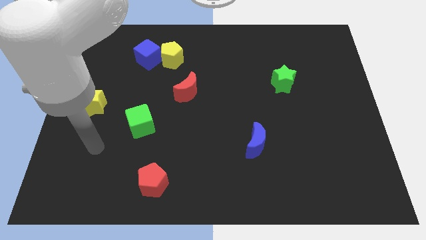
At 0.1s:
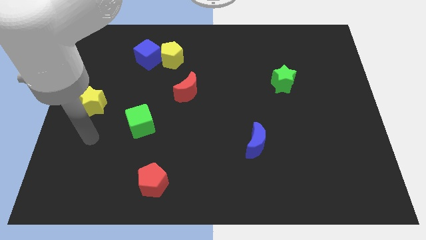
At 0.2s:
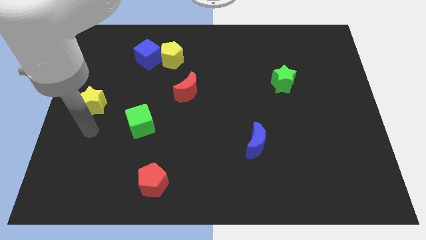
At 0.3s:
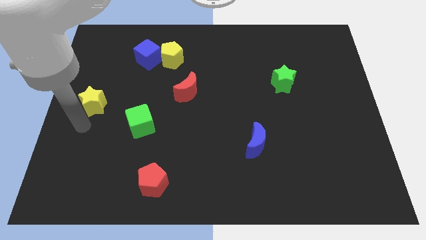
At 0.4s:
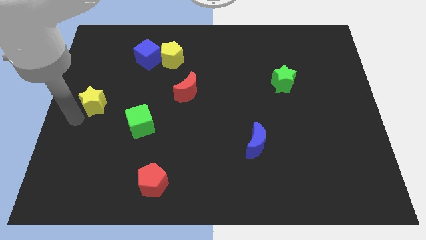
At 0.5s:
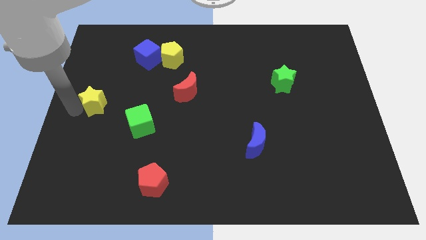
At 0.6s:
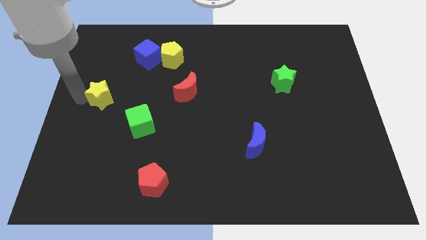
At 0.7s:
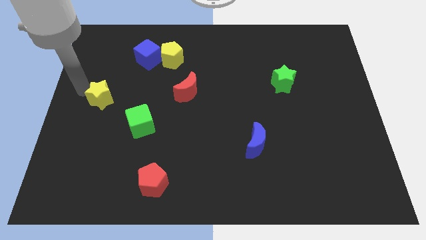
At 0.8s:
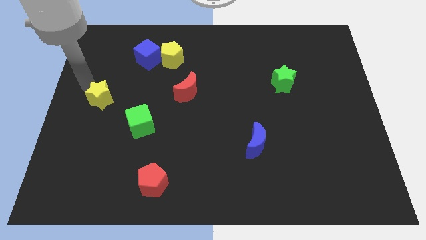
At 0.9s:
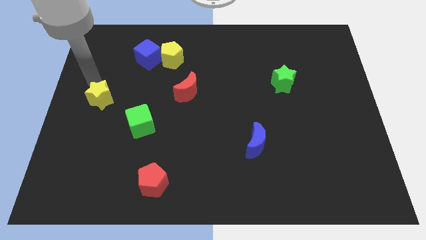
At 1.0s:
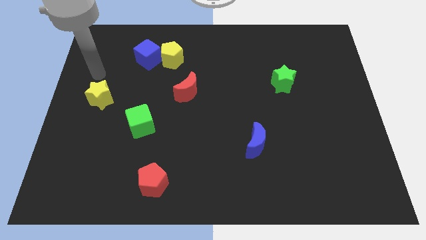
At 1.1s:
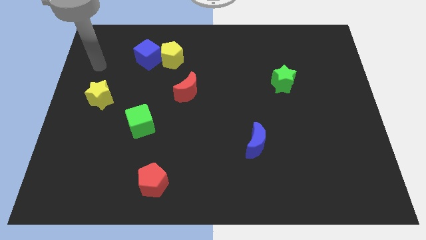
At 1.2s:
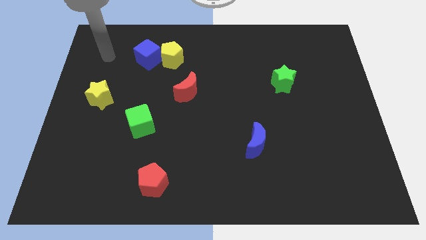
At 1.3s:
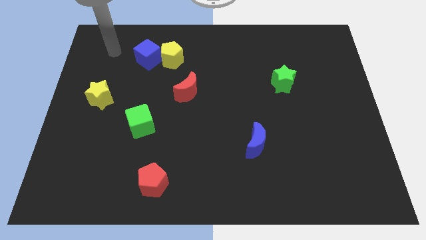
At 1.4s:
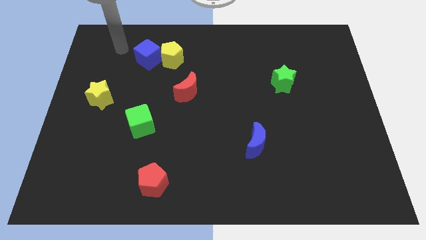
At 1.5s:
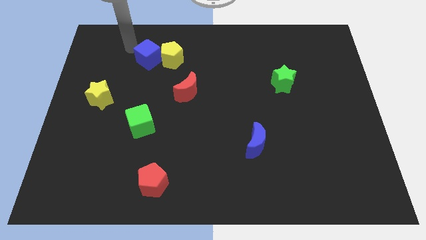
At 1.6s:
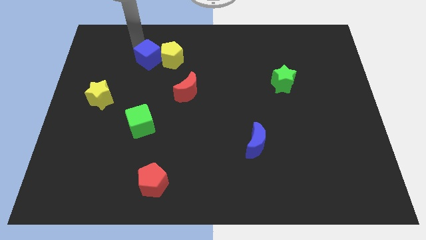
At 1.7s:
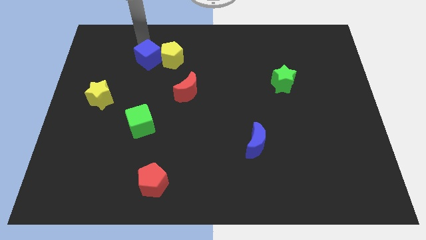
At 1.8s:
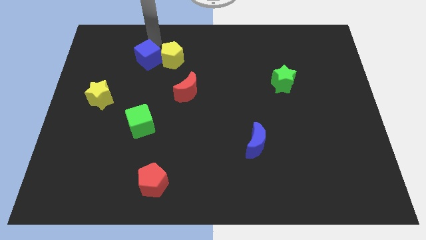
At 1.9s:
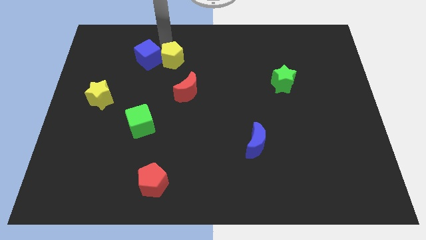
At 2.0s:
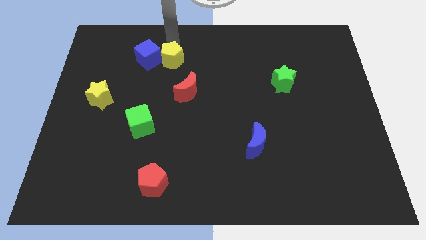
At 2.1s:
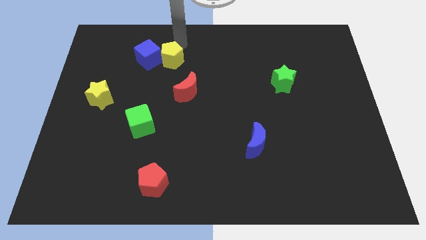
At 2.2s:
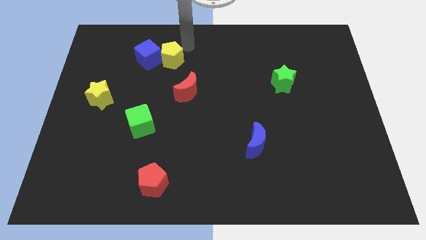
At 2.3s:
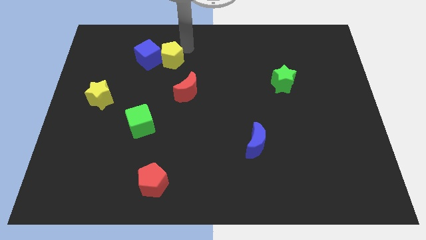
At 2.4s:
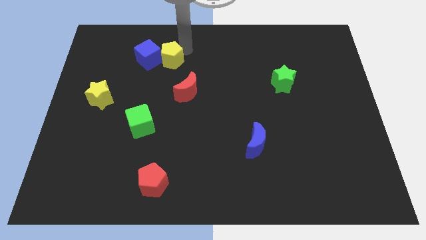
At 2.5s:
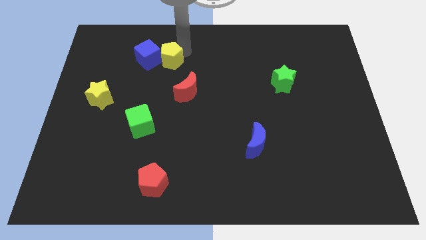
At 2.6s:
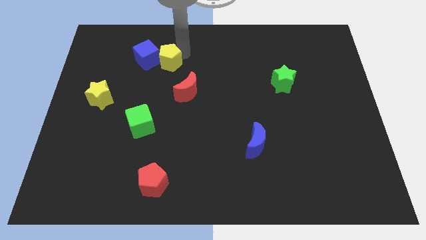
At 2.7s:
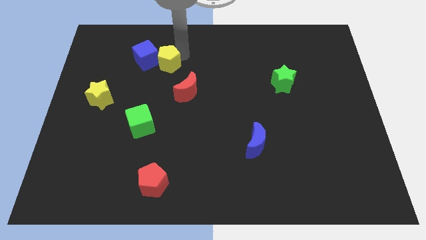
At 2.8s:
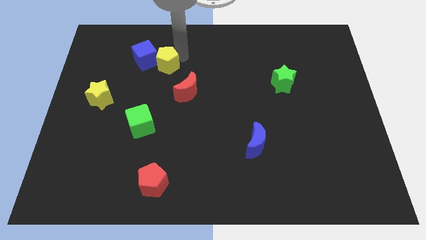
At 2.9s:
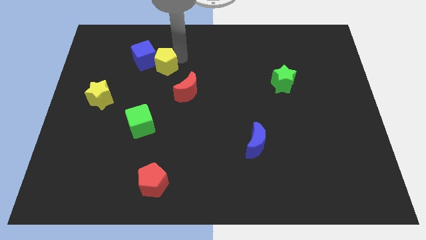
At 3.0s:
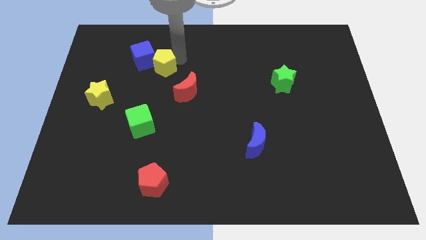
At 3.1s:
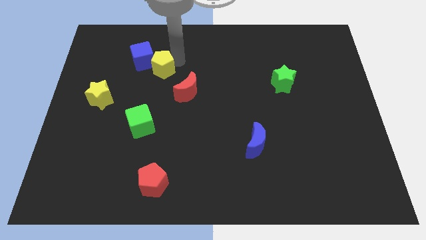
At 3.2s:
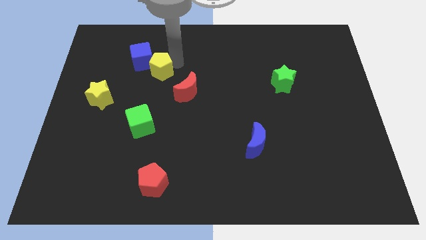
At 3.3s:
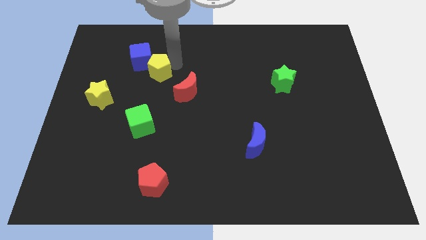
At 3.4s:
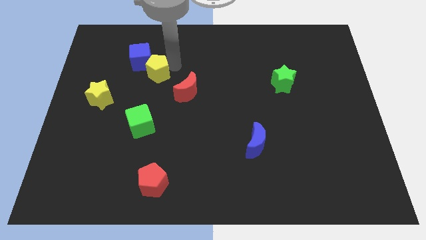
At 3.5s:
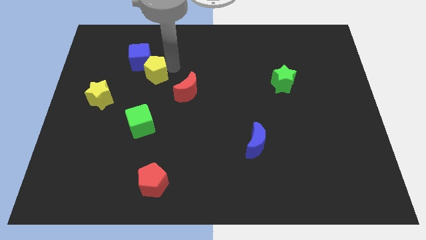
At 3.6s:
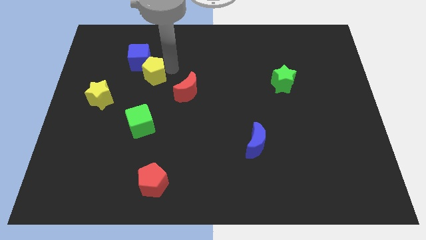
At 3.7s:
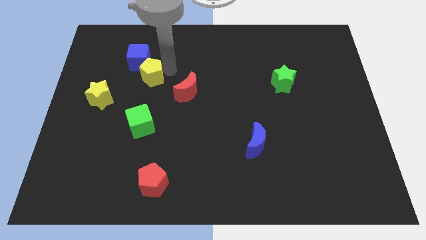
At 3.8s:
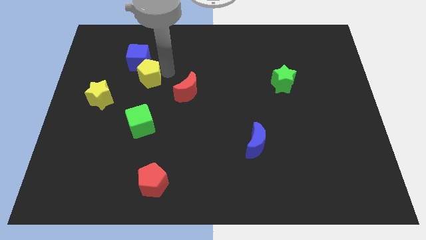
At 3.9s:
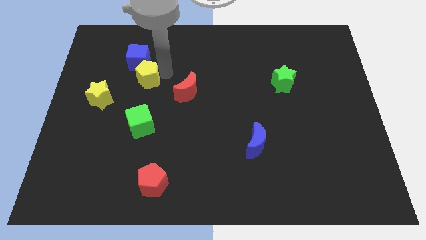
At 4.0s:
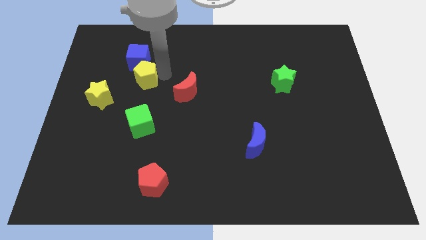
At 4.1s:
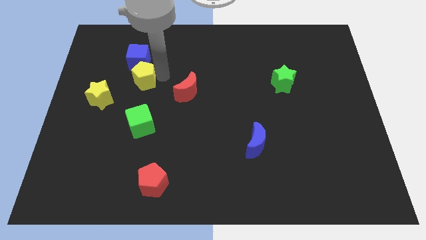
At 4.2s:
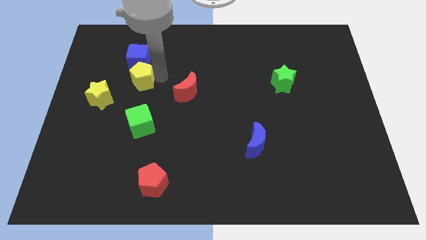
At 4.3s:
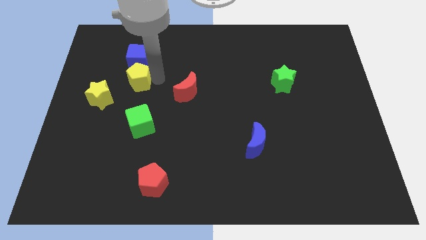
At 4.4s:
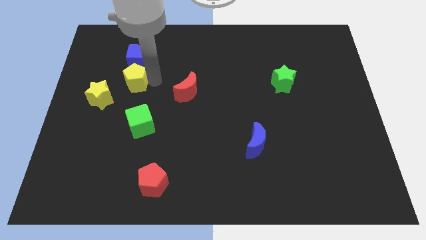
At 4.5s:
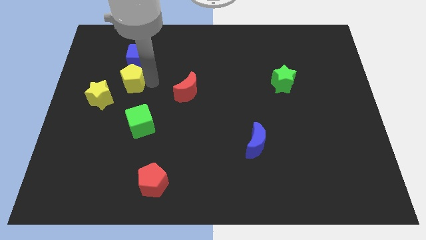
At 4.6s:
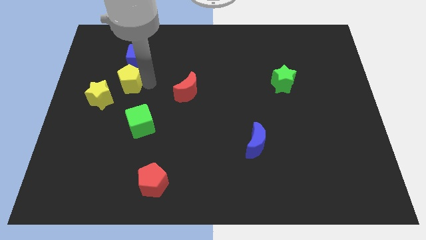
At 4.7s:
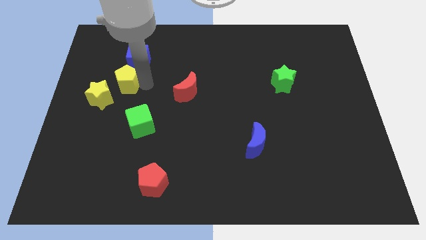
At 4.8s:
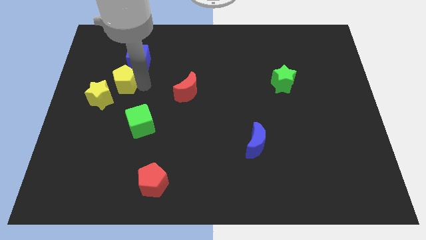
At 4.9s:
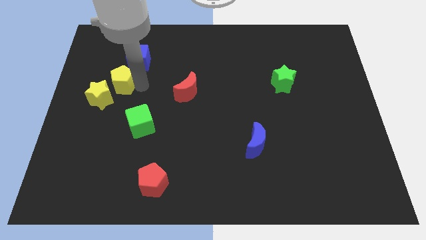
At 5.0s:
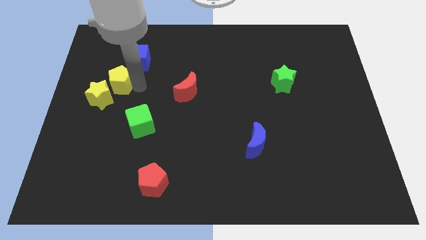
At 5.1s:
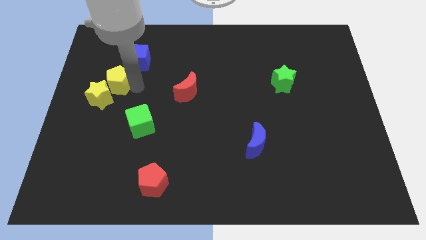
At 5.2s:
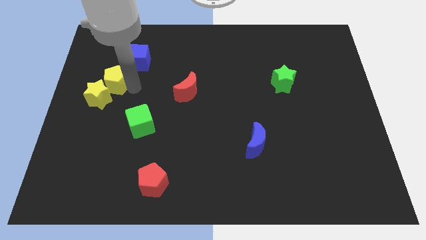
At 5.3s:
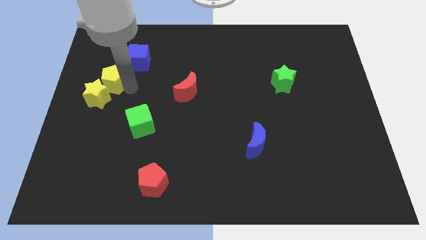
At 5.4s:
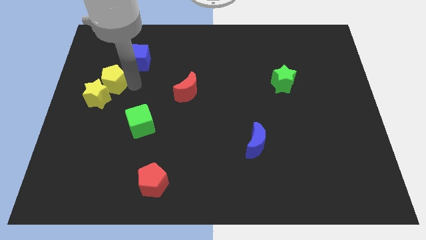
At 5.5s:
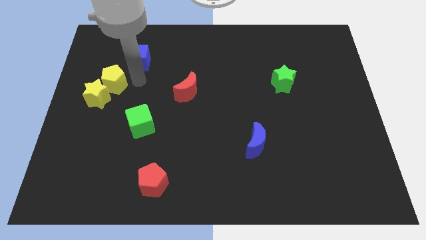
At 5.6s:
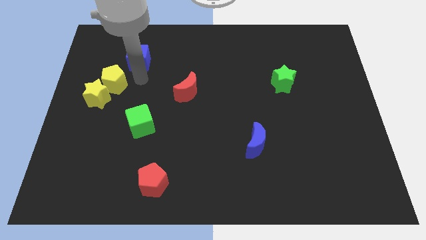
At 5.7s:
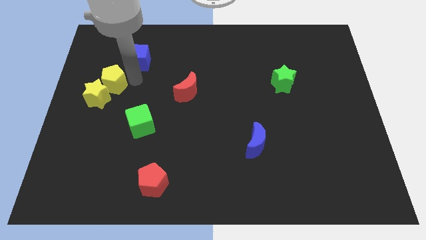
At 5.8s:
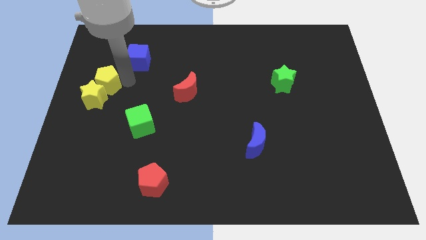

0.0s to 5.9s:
slide the yellow pentagon to the left side of the board

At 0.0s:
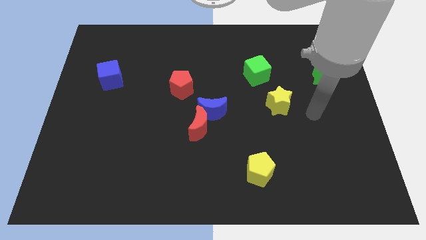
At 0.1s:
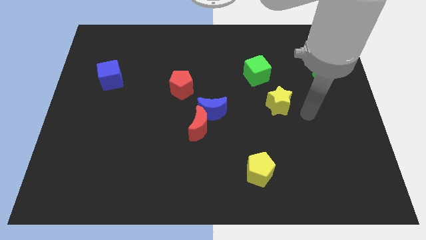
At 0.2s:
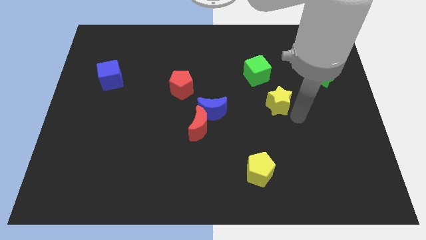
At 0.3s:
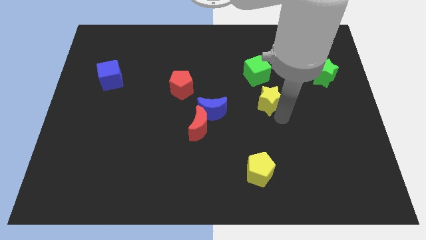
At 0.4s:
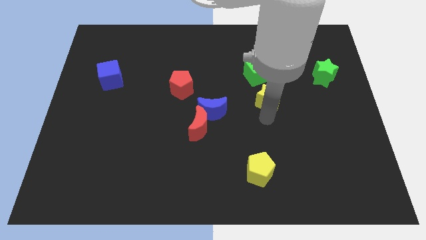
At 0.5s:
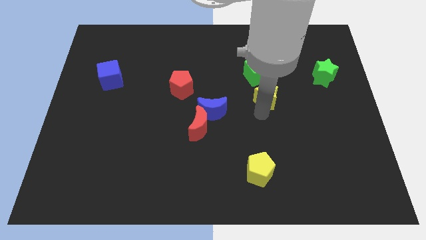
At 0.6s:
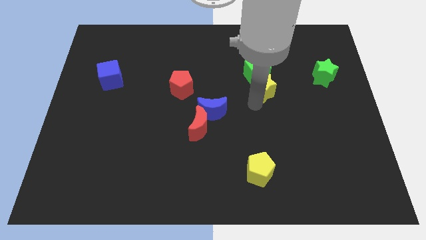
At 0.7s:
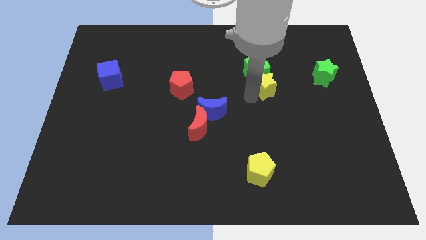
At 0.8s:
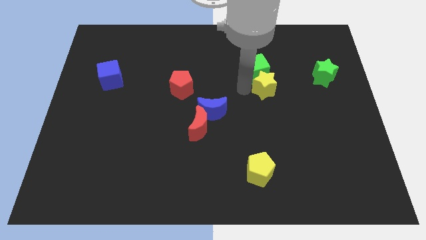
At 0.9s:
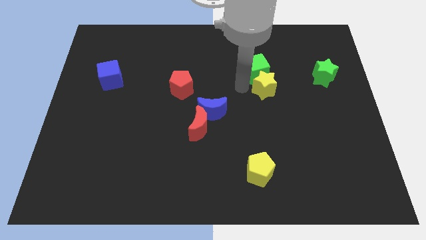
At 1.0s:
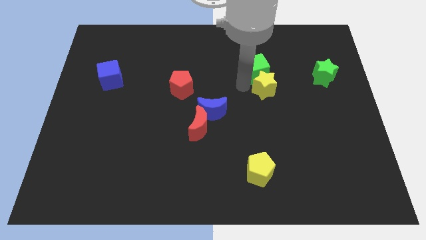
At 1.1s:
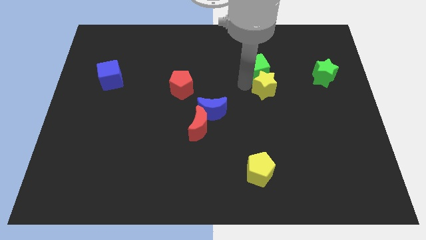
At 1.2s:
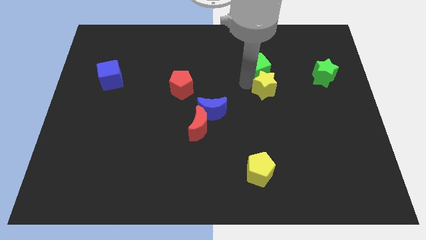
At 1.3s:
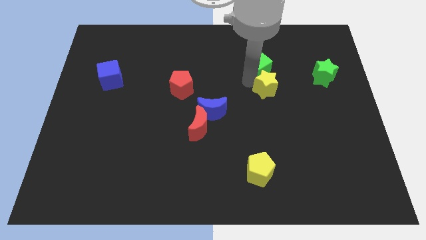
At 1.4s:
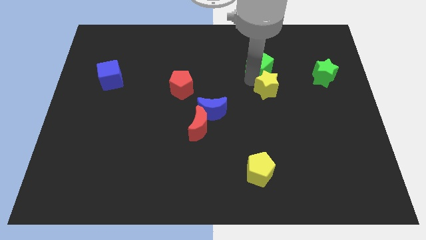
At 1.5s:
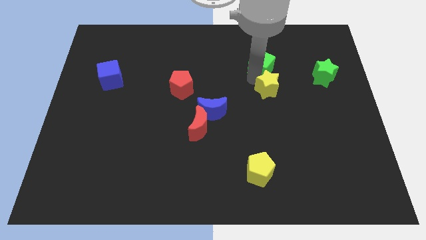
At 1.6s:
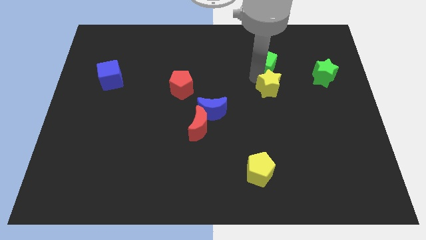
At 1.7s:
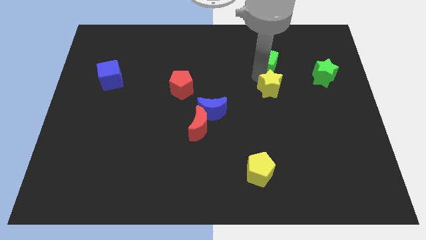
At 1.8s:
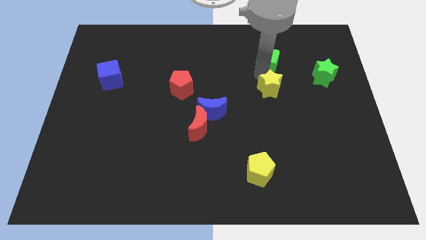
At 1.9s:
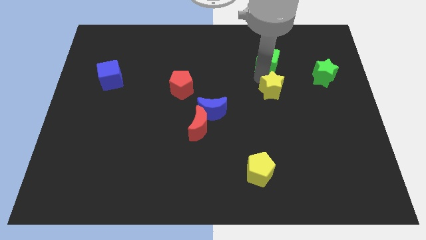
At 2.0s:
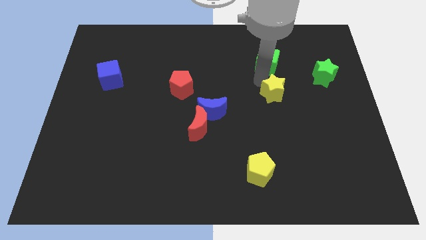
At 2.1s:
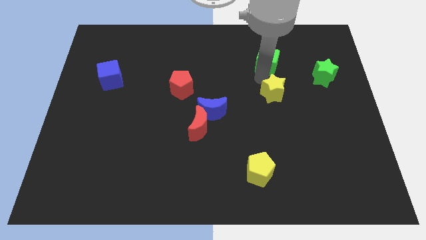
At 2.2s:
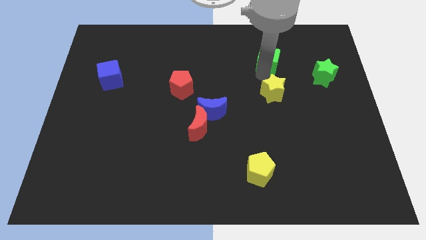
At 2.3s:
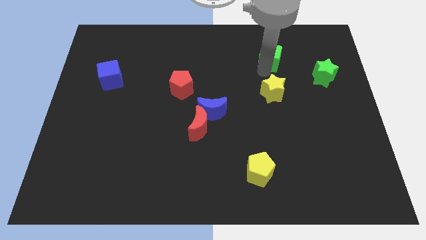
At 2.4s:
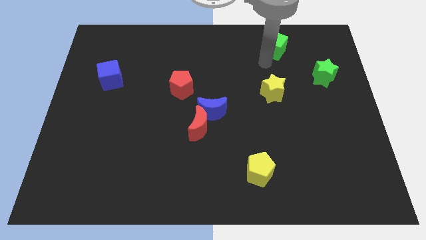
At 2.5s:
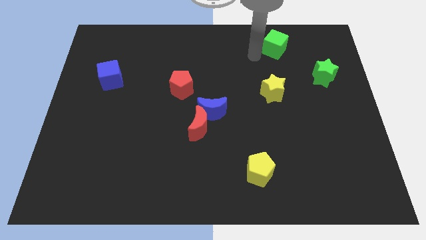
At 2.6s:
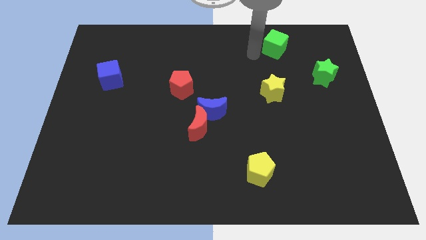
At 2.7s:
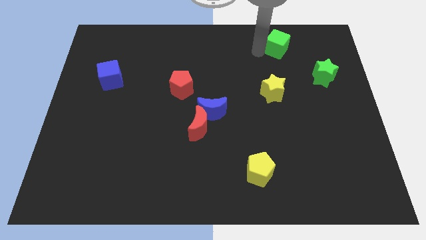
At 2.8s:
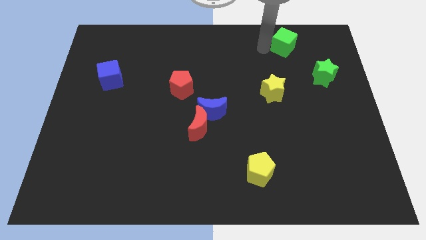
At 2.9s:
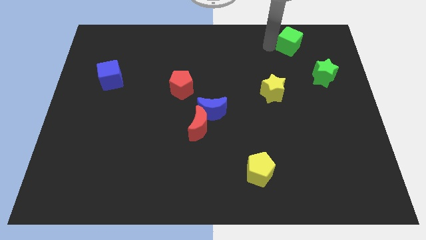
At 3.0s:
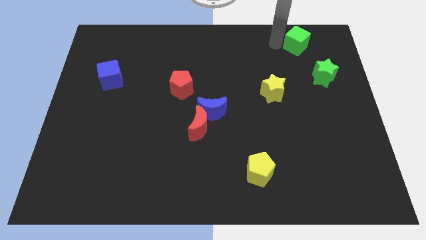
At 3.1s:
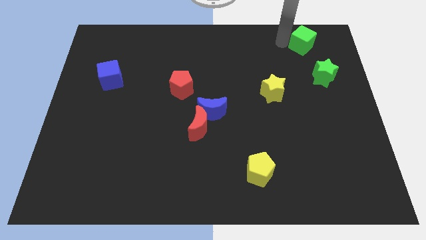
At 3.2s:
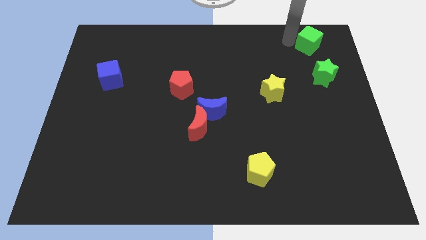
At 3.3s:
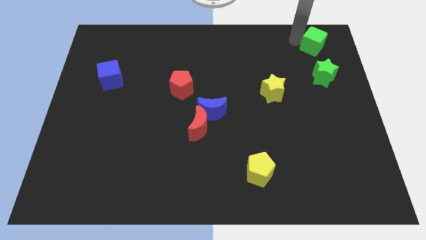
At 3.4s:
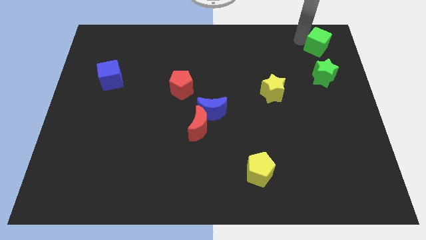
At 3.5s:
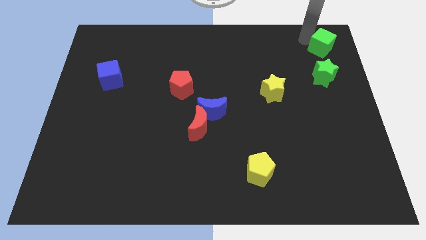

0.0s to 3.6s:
put the green cube to the upper right corner
